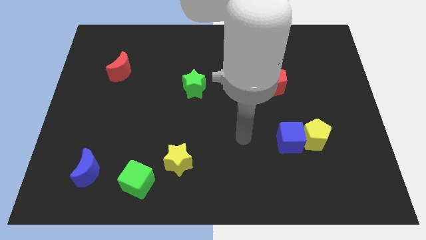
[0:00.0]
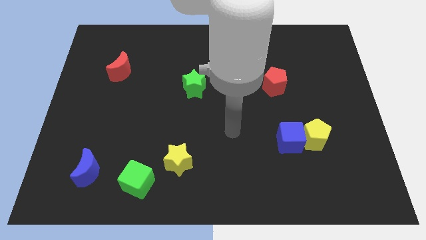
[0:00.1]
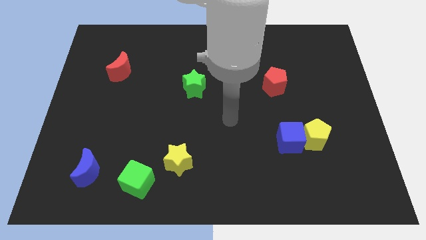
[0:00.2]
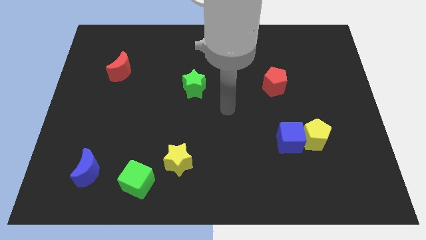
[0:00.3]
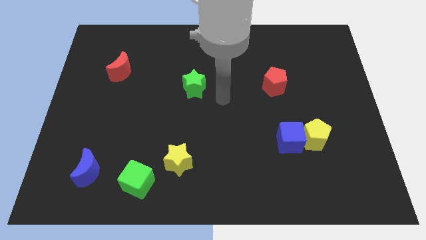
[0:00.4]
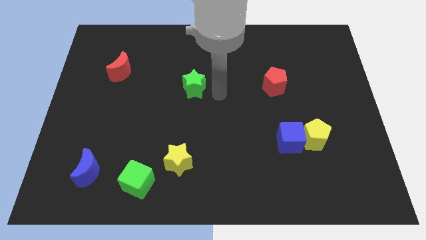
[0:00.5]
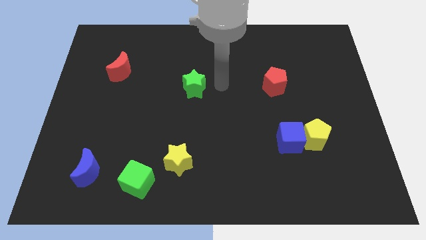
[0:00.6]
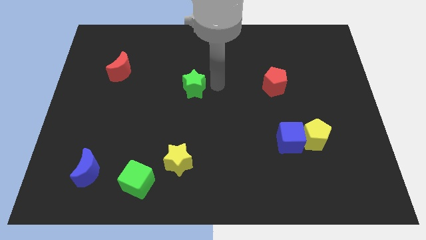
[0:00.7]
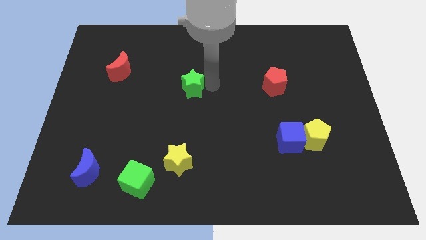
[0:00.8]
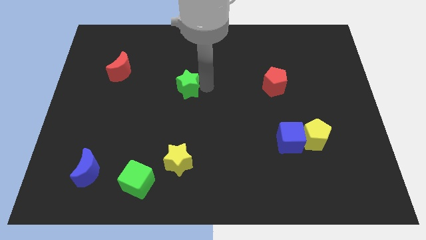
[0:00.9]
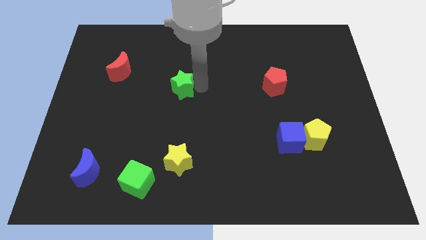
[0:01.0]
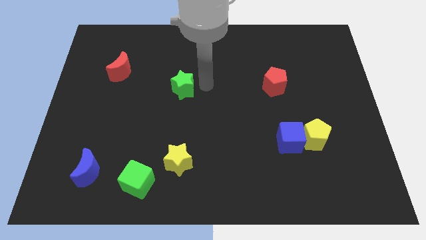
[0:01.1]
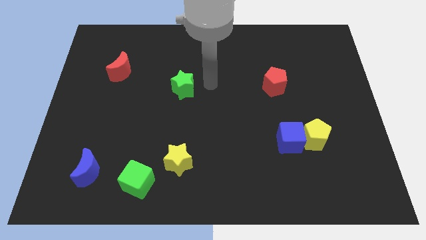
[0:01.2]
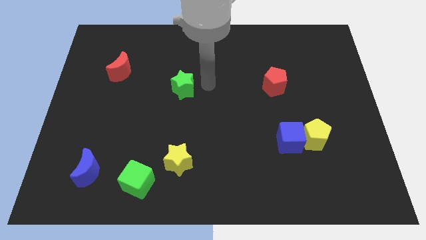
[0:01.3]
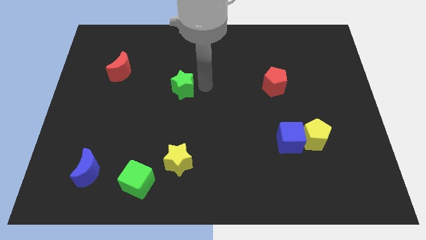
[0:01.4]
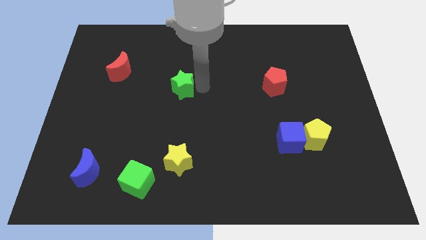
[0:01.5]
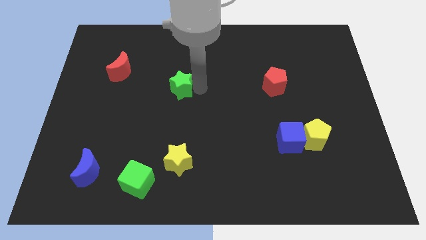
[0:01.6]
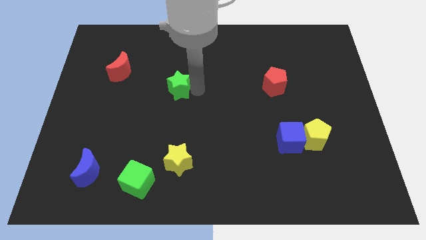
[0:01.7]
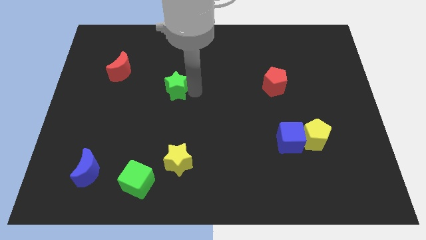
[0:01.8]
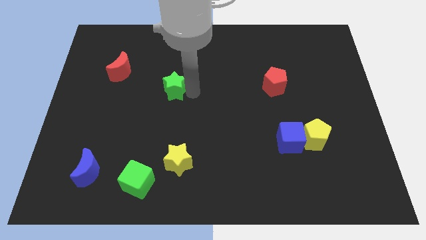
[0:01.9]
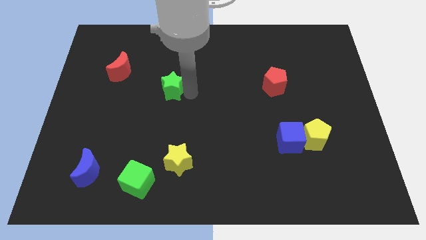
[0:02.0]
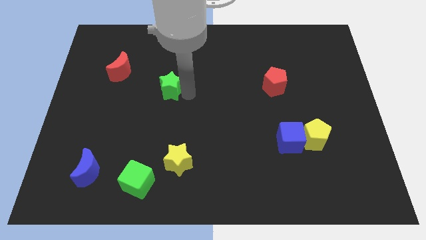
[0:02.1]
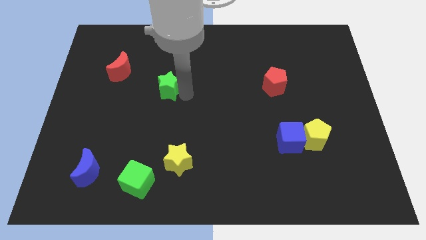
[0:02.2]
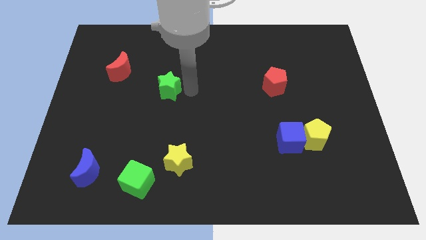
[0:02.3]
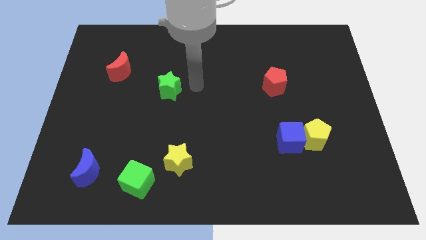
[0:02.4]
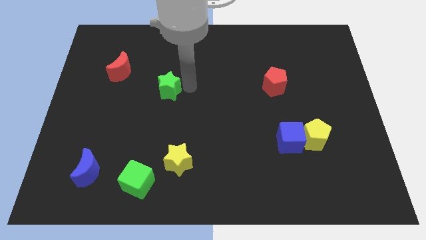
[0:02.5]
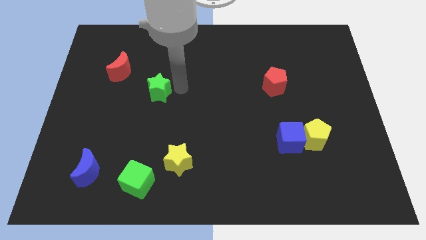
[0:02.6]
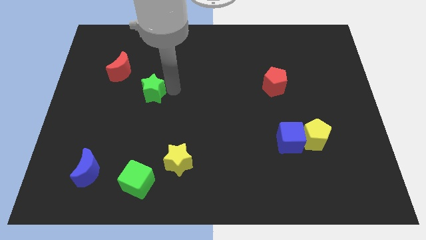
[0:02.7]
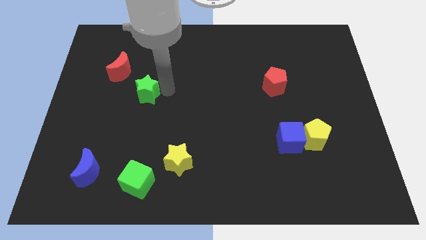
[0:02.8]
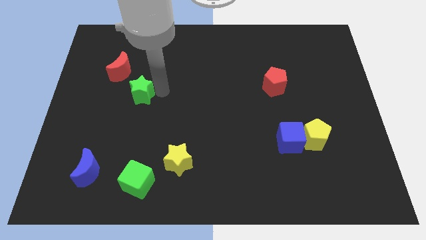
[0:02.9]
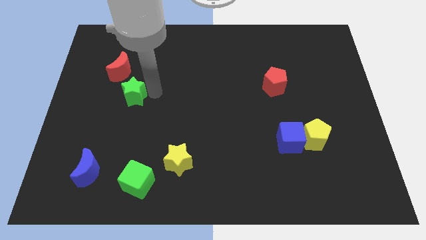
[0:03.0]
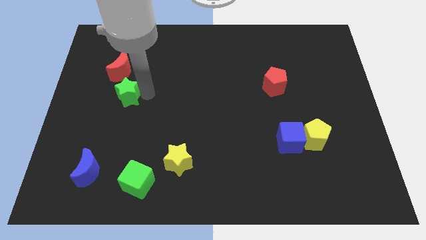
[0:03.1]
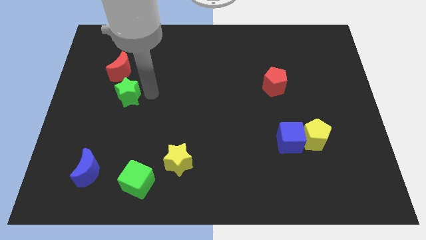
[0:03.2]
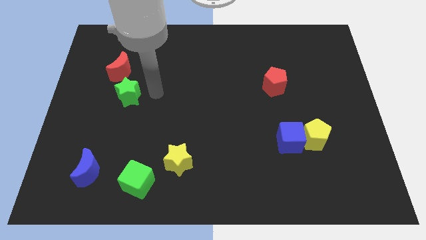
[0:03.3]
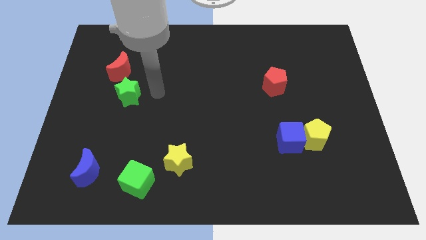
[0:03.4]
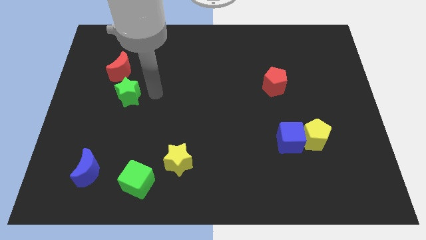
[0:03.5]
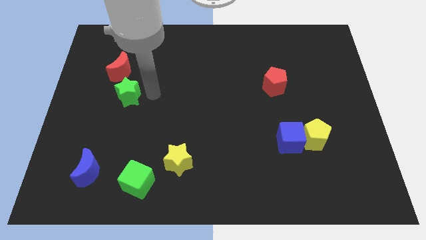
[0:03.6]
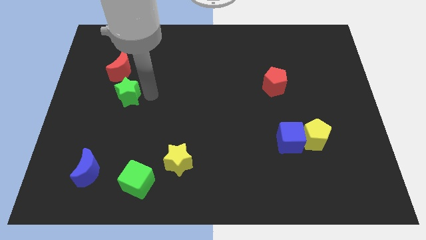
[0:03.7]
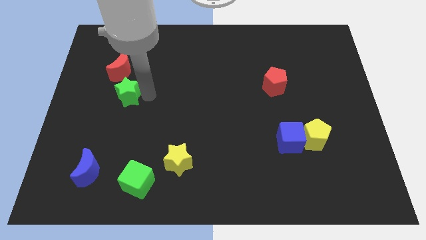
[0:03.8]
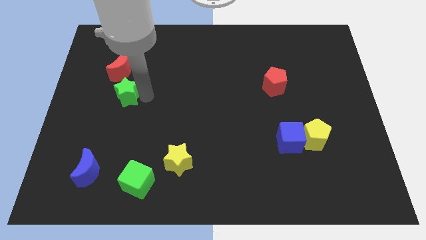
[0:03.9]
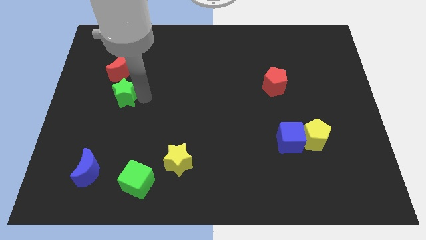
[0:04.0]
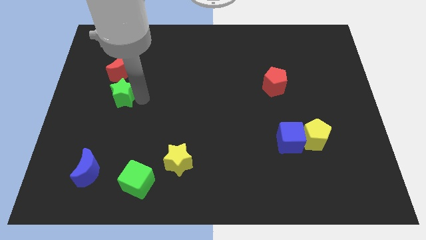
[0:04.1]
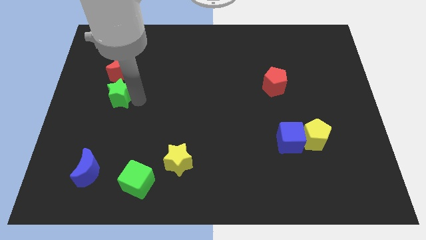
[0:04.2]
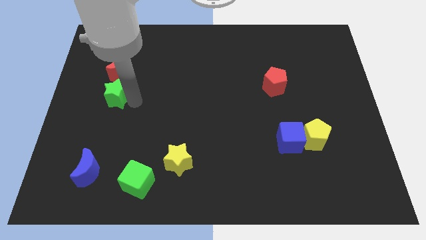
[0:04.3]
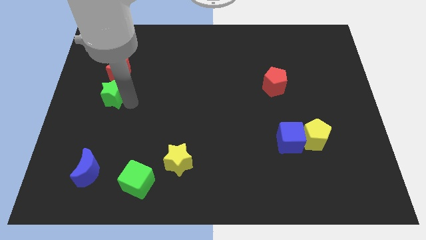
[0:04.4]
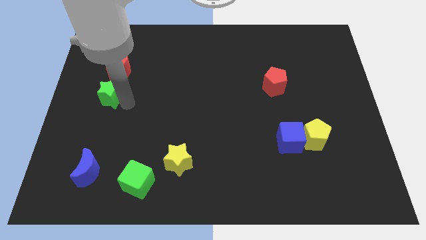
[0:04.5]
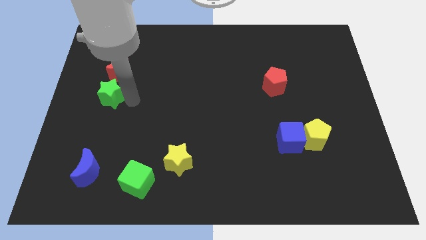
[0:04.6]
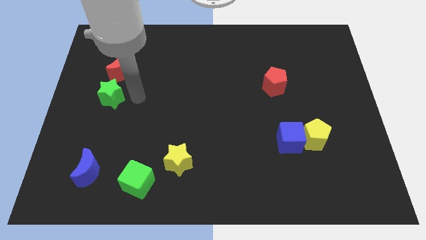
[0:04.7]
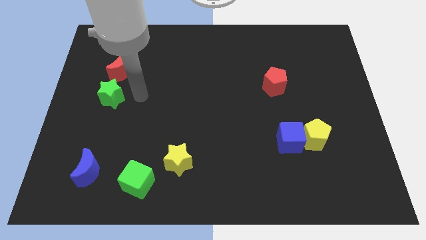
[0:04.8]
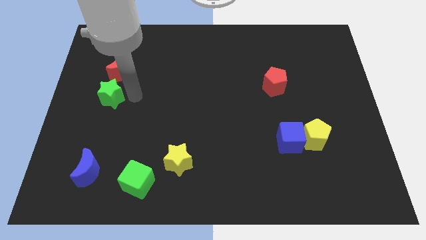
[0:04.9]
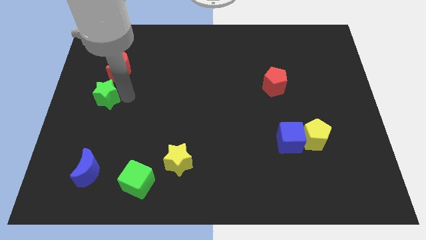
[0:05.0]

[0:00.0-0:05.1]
move the green star to the left side

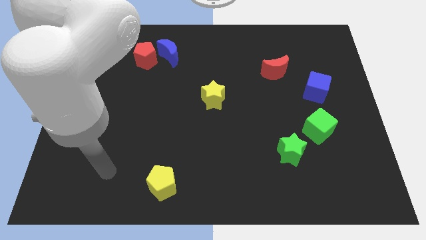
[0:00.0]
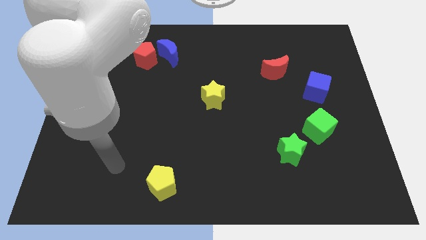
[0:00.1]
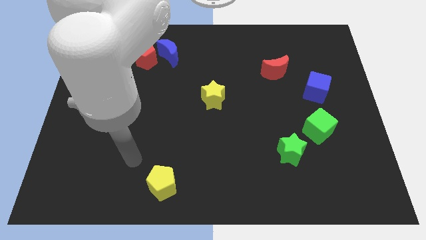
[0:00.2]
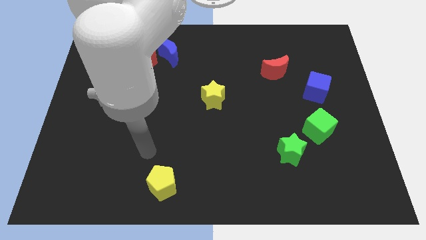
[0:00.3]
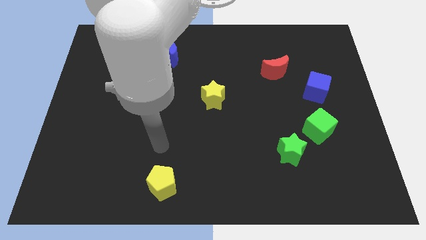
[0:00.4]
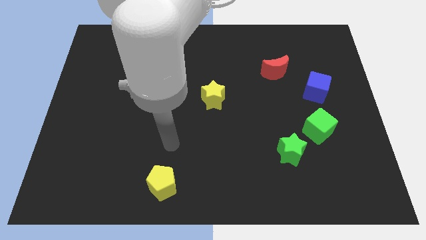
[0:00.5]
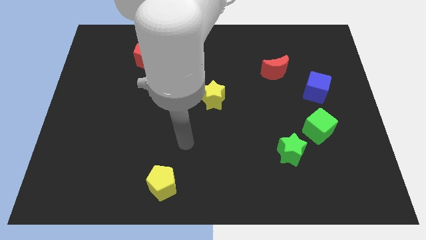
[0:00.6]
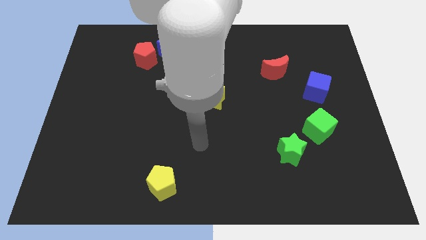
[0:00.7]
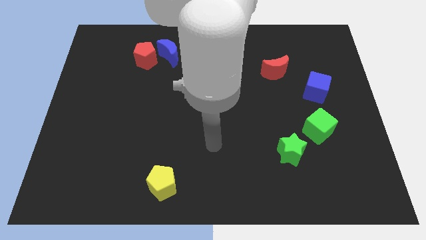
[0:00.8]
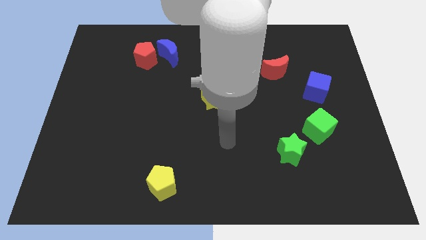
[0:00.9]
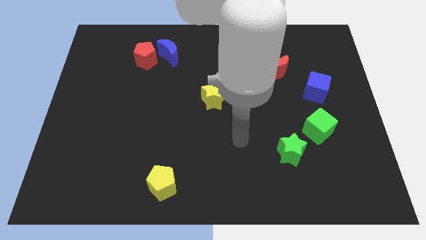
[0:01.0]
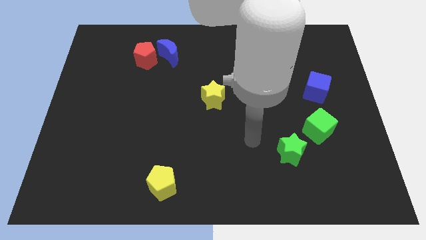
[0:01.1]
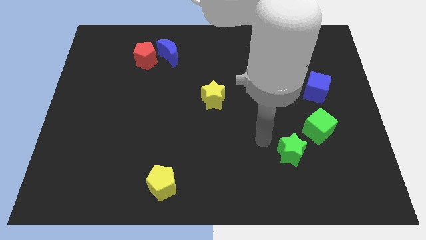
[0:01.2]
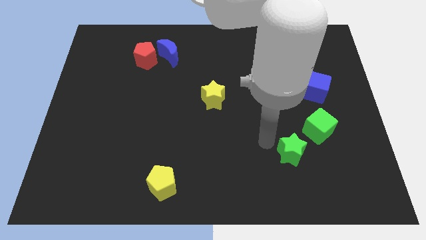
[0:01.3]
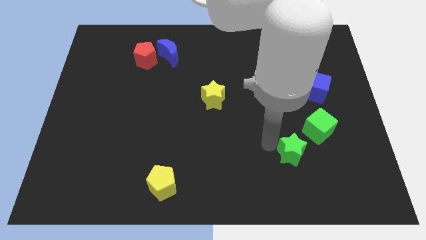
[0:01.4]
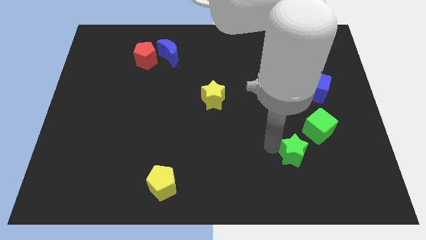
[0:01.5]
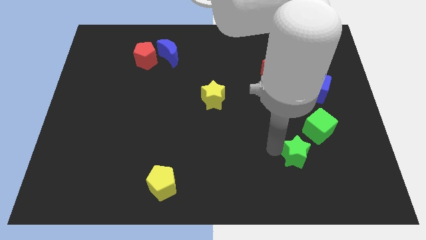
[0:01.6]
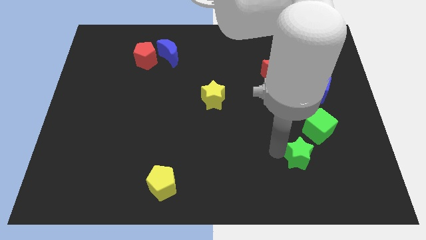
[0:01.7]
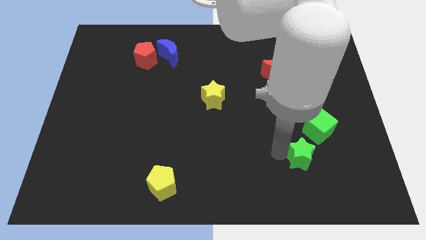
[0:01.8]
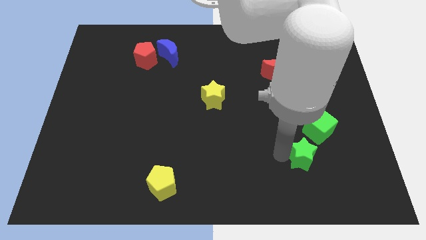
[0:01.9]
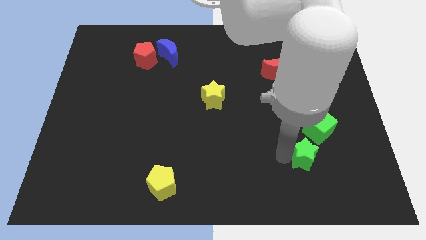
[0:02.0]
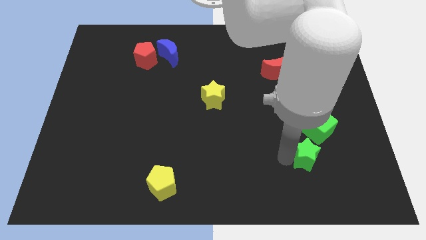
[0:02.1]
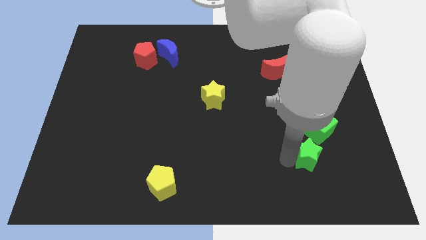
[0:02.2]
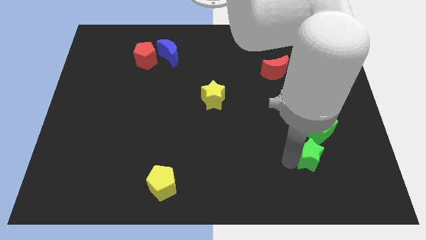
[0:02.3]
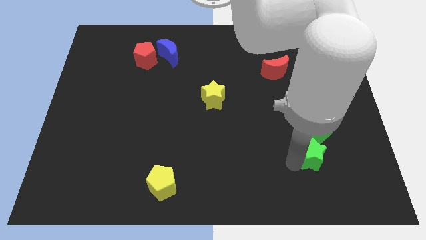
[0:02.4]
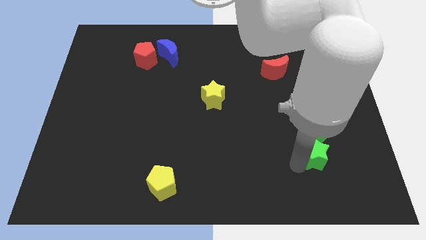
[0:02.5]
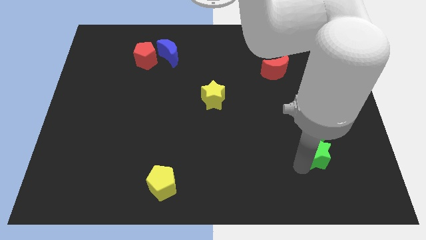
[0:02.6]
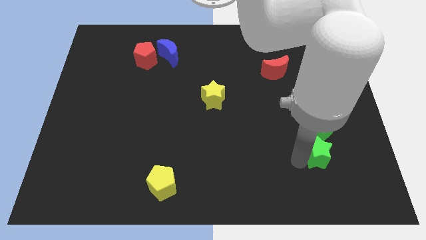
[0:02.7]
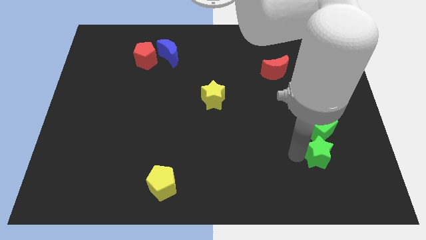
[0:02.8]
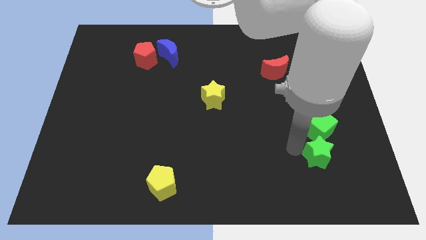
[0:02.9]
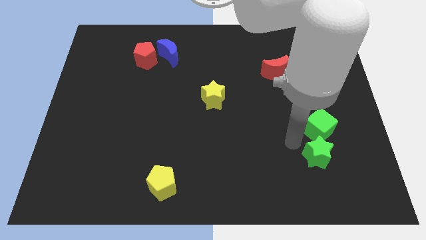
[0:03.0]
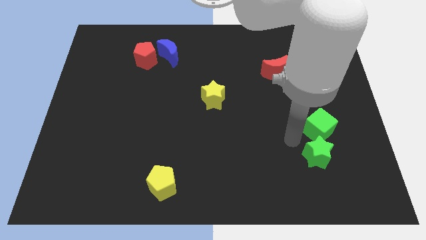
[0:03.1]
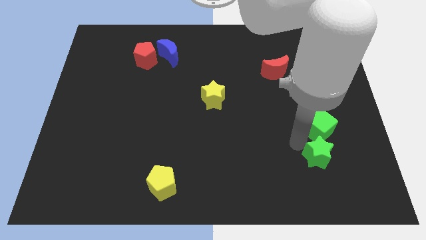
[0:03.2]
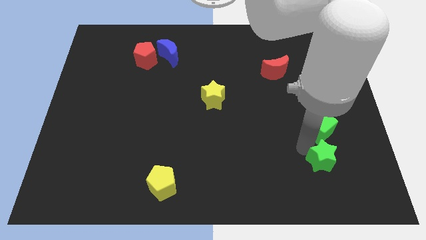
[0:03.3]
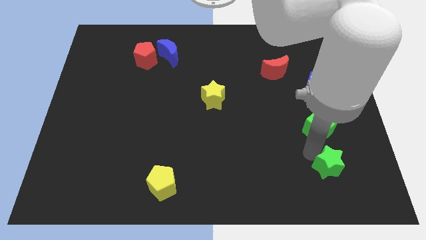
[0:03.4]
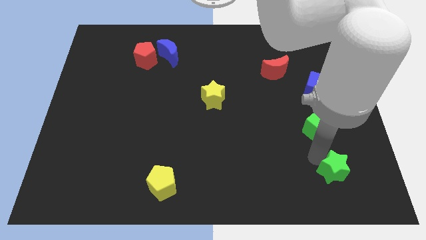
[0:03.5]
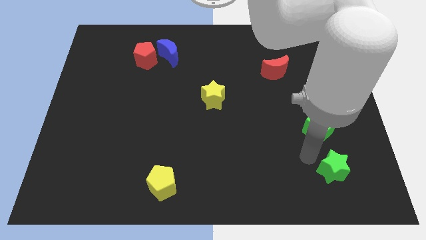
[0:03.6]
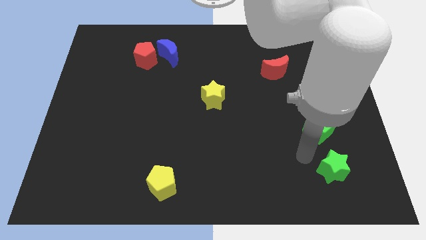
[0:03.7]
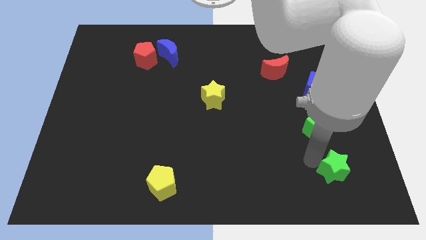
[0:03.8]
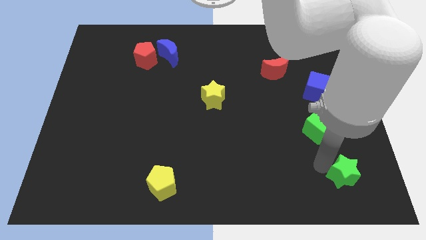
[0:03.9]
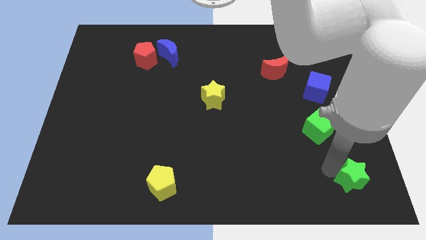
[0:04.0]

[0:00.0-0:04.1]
slide the green star to the bottom right corner
